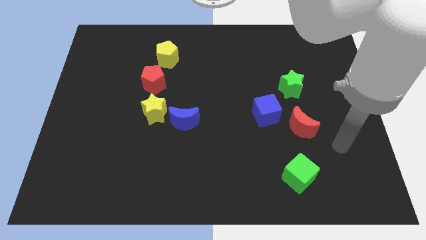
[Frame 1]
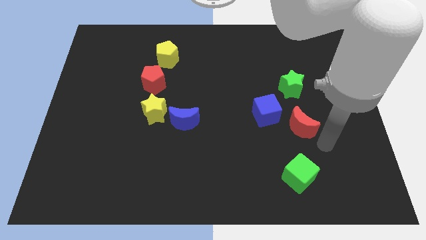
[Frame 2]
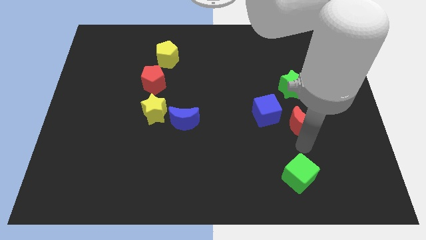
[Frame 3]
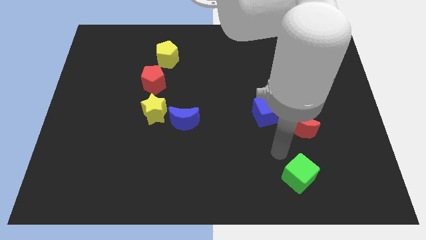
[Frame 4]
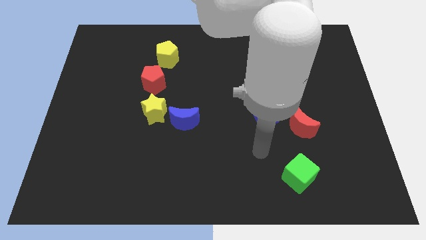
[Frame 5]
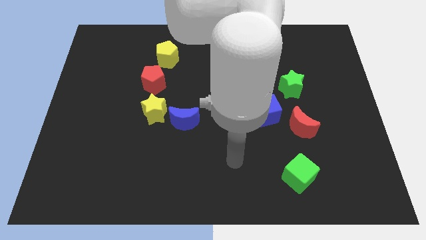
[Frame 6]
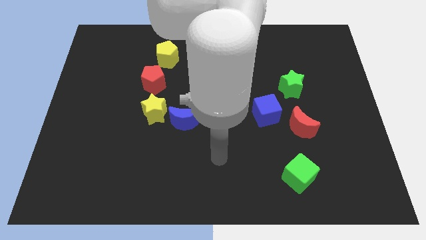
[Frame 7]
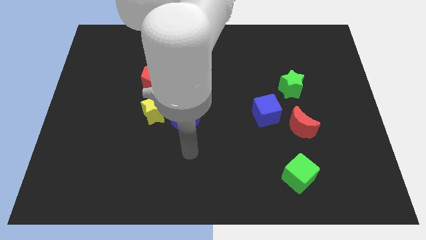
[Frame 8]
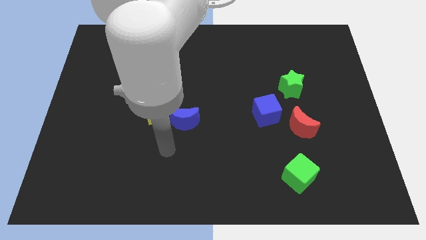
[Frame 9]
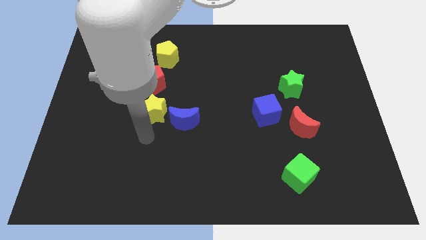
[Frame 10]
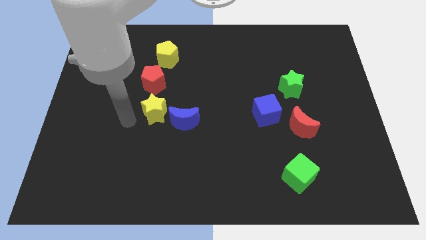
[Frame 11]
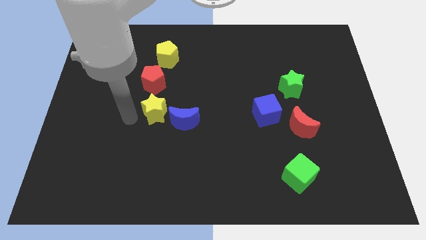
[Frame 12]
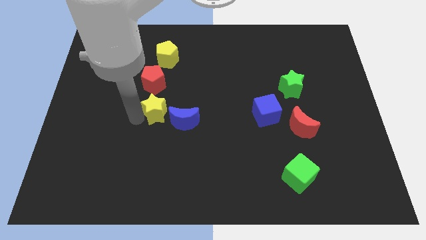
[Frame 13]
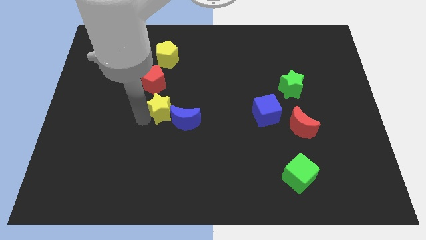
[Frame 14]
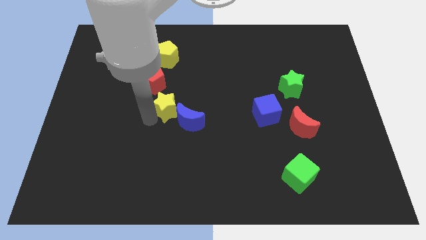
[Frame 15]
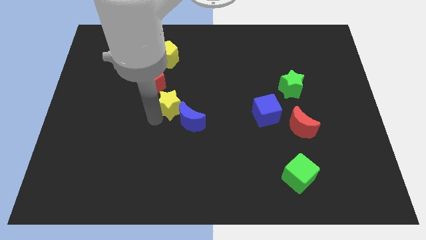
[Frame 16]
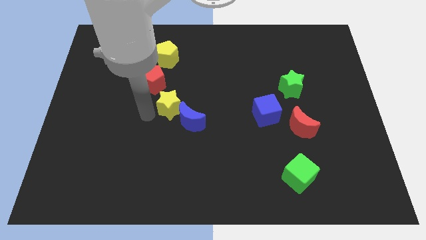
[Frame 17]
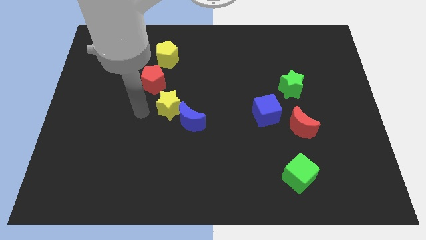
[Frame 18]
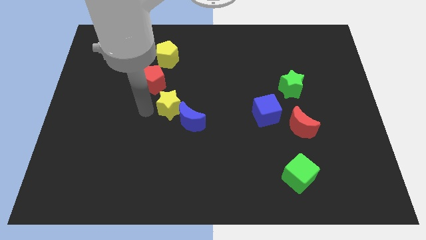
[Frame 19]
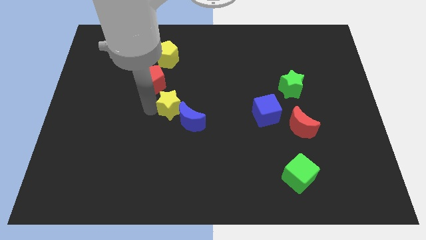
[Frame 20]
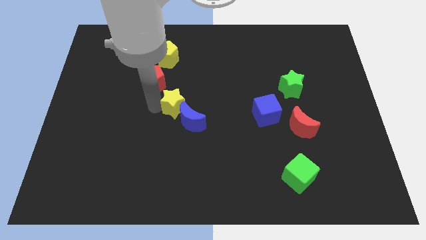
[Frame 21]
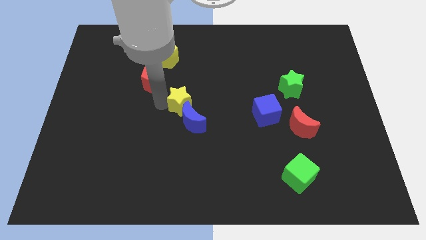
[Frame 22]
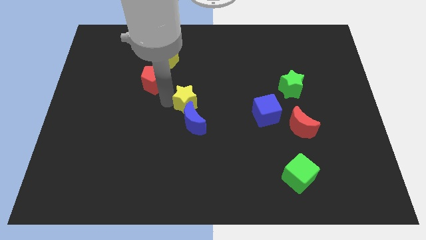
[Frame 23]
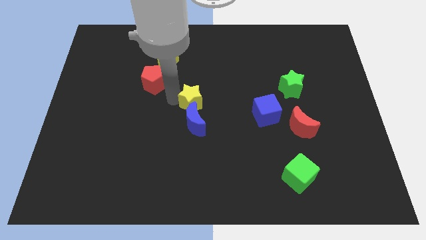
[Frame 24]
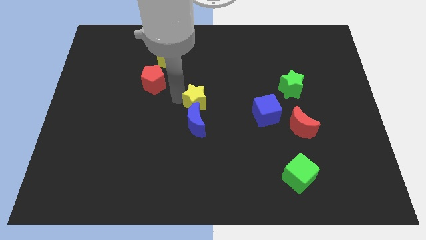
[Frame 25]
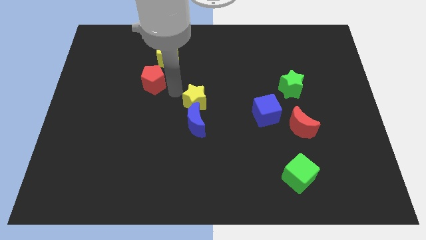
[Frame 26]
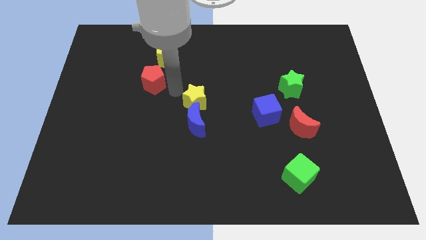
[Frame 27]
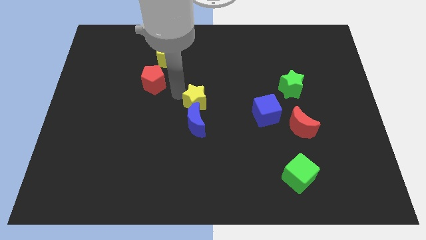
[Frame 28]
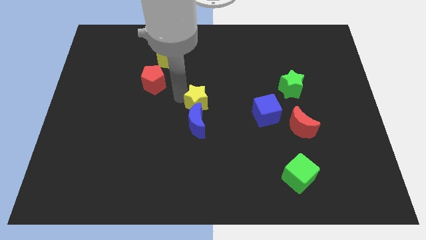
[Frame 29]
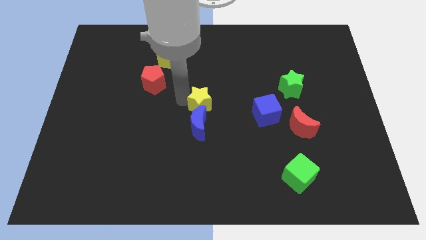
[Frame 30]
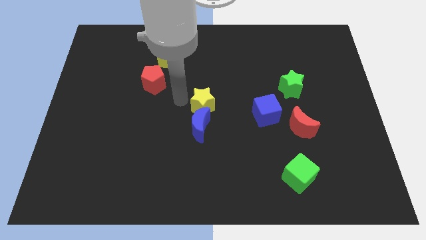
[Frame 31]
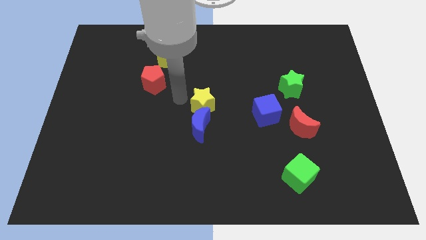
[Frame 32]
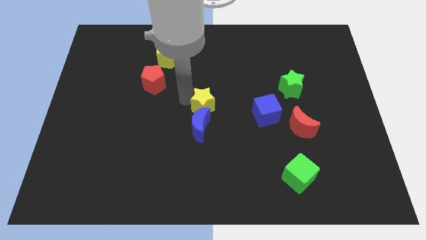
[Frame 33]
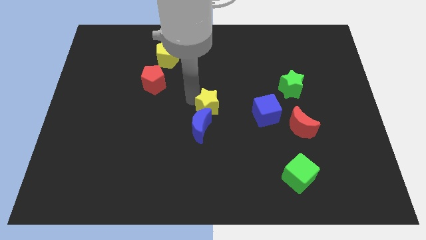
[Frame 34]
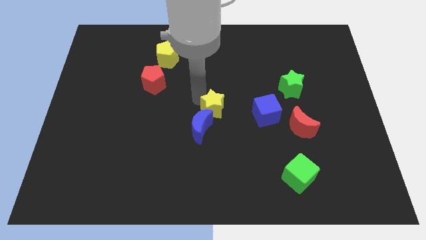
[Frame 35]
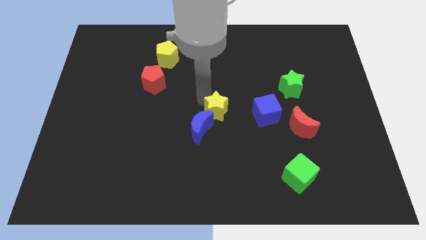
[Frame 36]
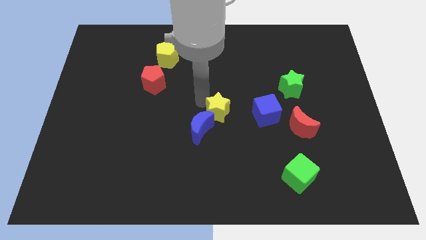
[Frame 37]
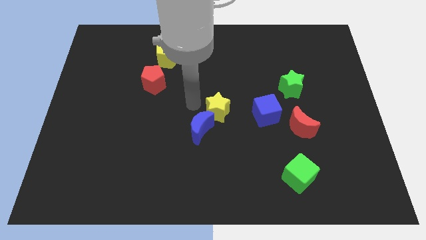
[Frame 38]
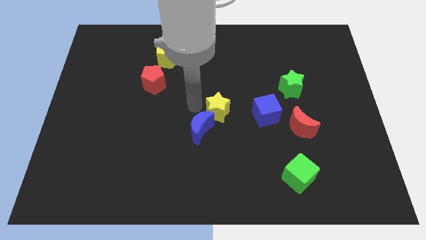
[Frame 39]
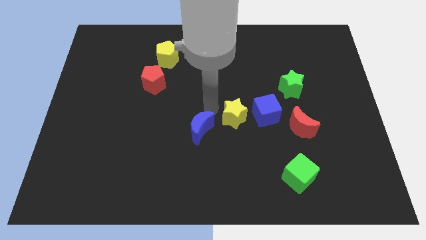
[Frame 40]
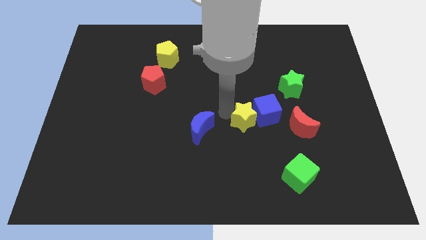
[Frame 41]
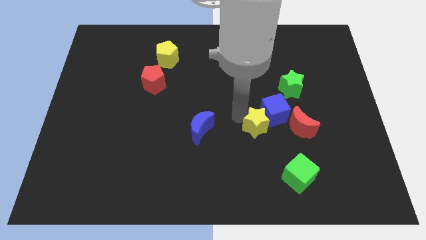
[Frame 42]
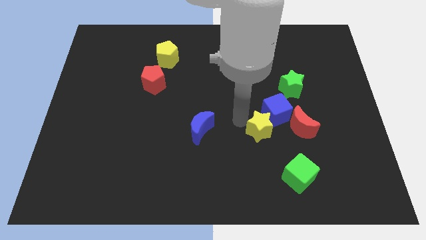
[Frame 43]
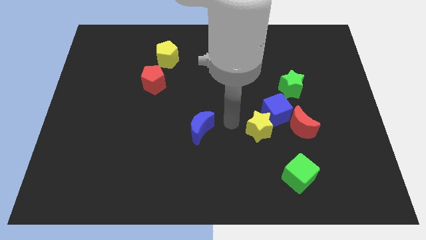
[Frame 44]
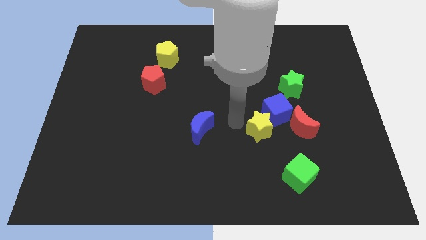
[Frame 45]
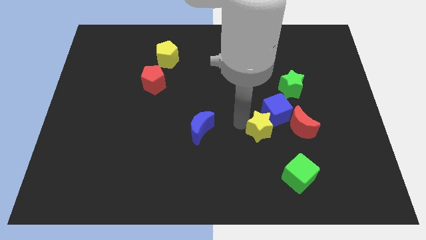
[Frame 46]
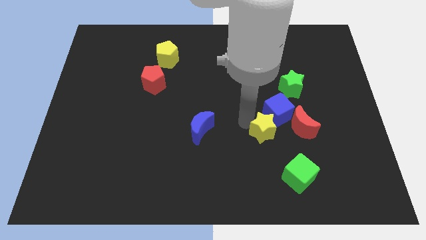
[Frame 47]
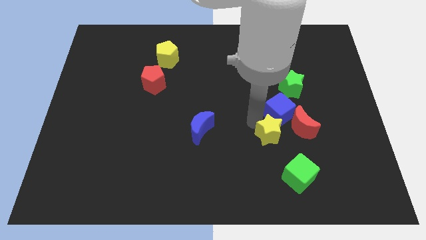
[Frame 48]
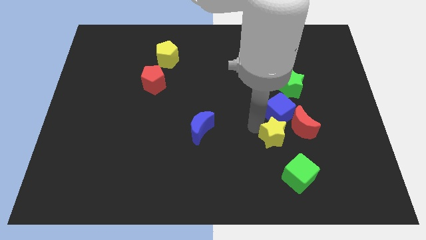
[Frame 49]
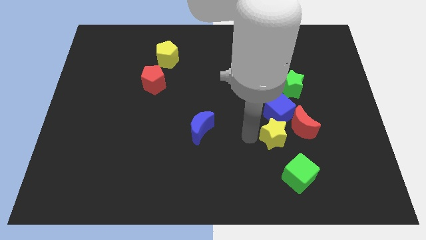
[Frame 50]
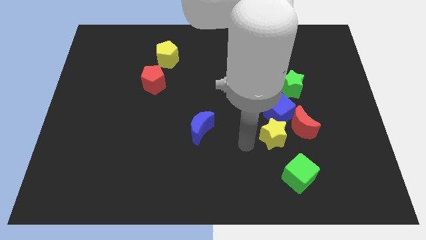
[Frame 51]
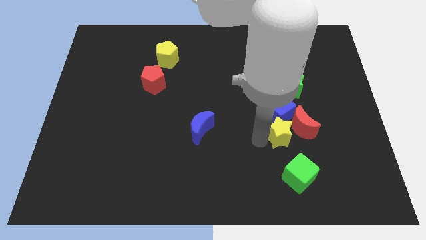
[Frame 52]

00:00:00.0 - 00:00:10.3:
push the yellow star towards the red moon

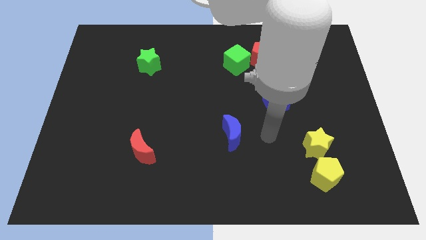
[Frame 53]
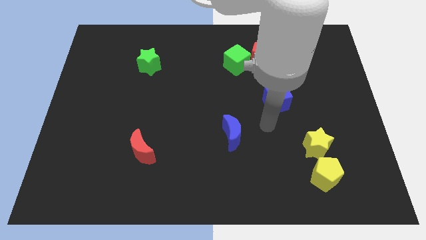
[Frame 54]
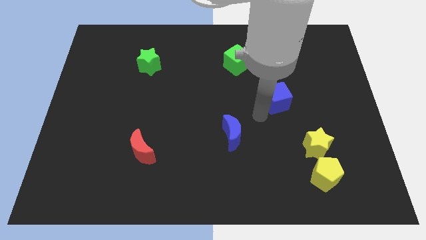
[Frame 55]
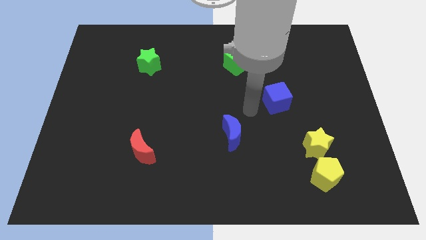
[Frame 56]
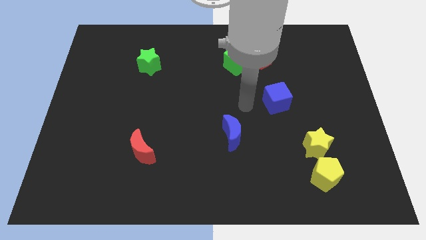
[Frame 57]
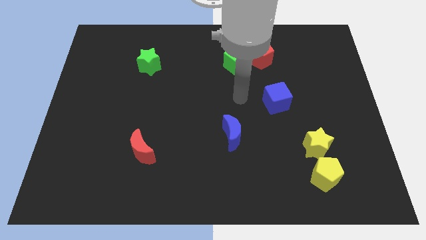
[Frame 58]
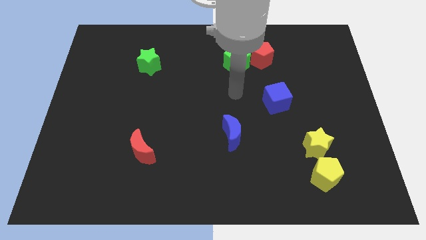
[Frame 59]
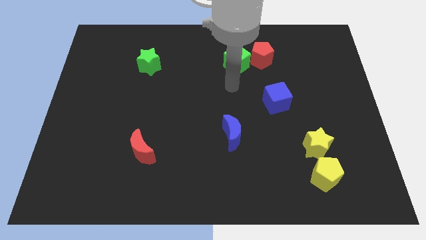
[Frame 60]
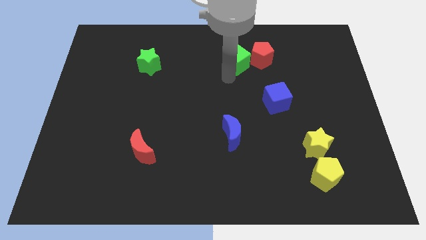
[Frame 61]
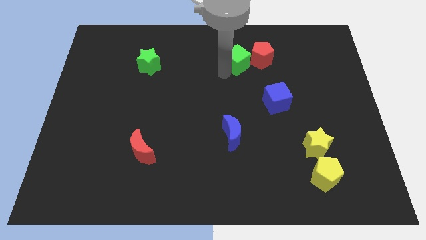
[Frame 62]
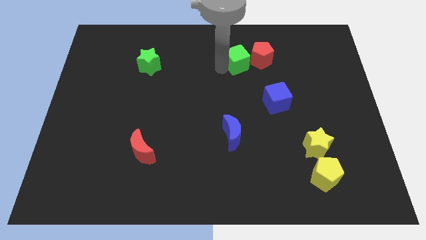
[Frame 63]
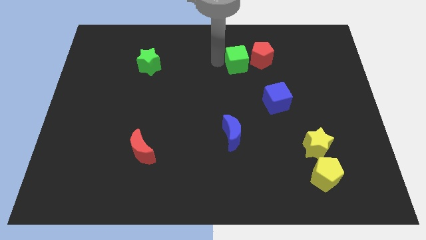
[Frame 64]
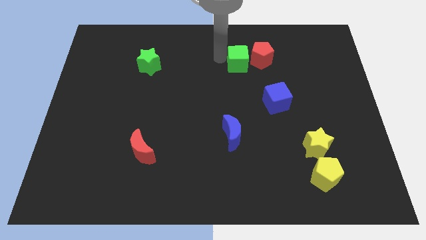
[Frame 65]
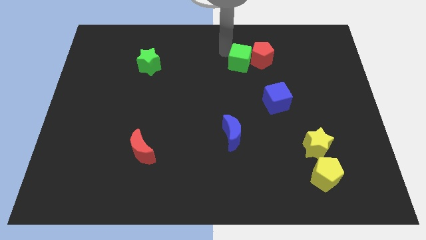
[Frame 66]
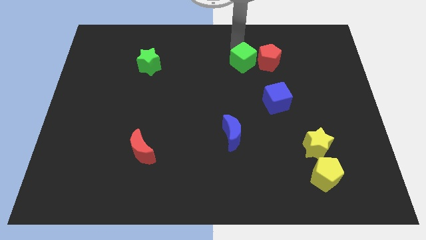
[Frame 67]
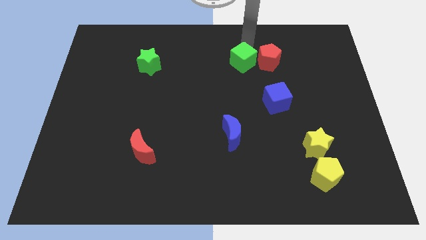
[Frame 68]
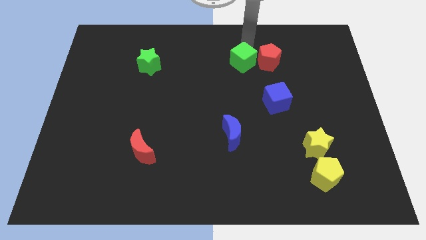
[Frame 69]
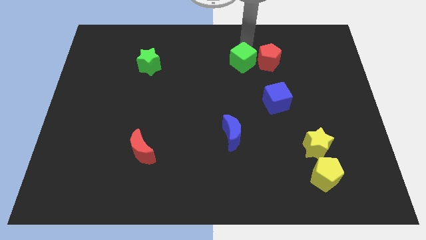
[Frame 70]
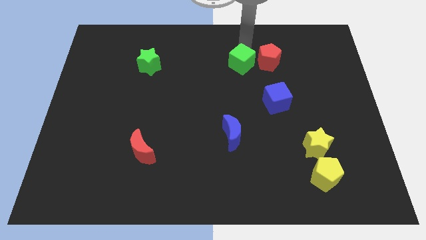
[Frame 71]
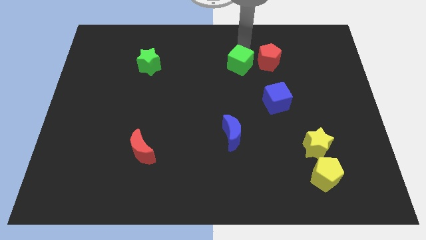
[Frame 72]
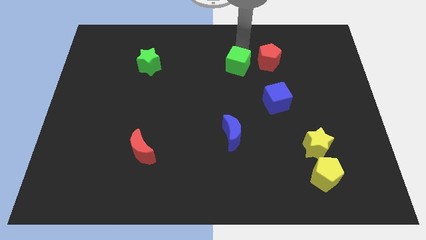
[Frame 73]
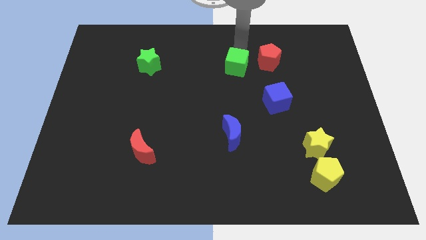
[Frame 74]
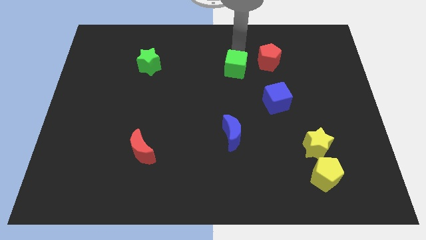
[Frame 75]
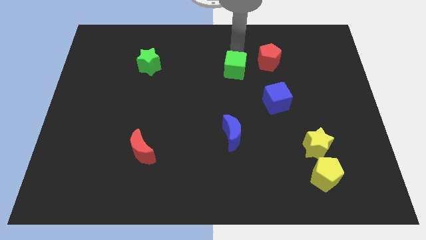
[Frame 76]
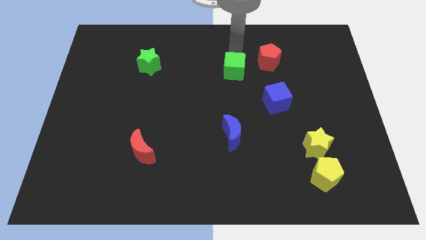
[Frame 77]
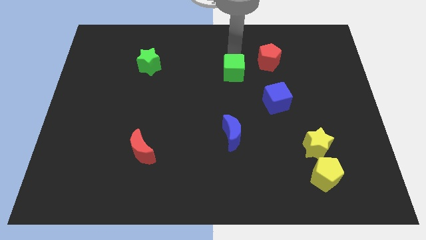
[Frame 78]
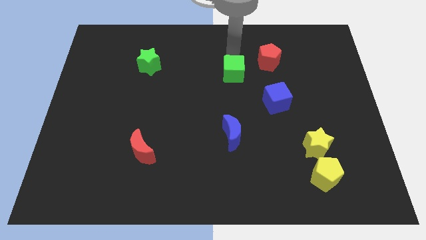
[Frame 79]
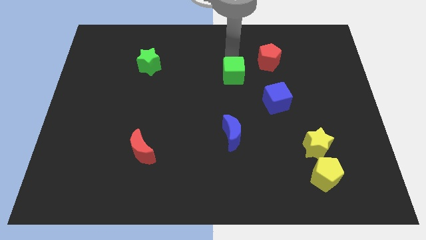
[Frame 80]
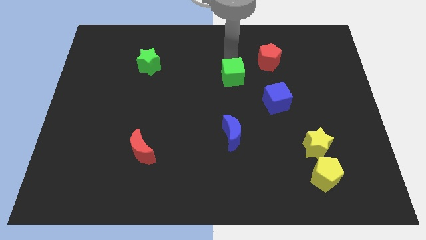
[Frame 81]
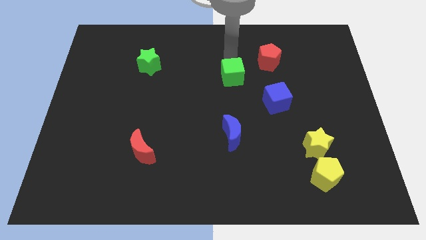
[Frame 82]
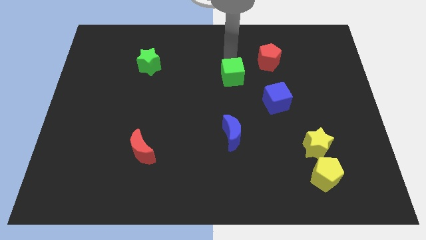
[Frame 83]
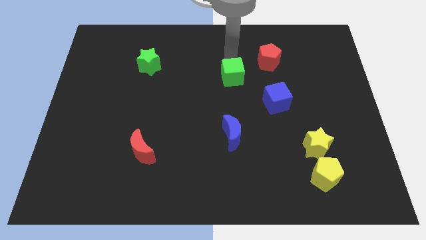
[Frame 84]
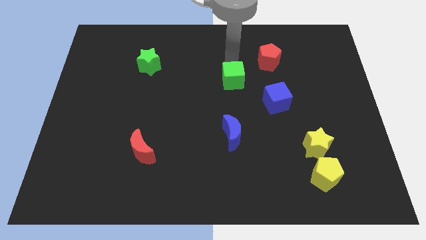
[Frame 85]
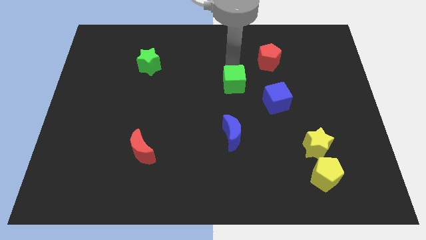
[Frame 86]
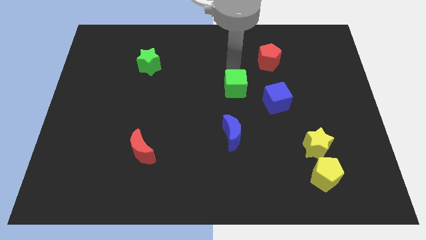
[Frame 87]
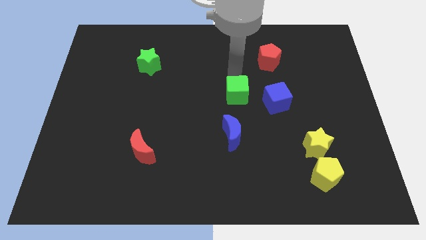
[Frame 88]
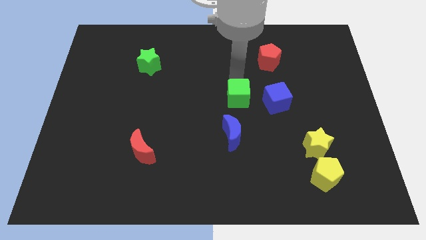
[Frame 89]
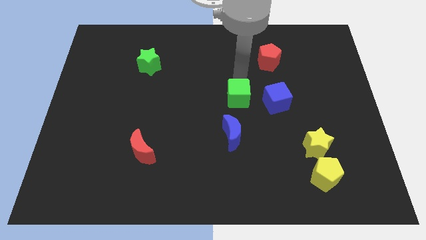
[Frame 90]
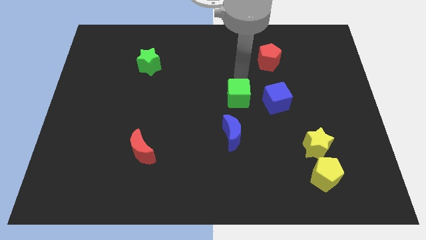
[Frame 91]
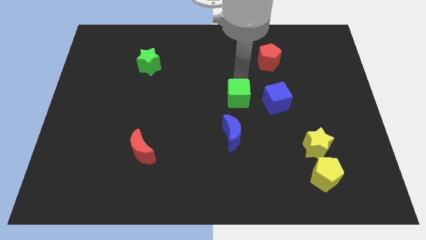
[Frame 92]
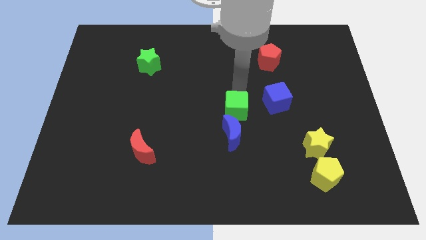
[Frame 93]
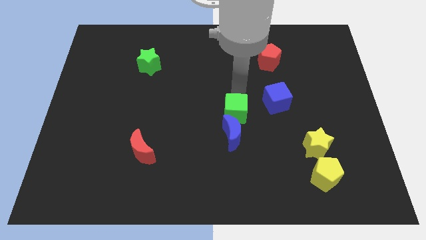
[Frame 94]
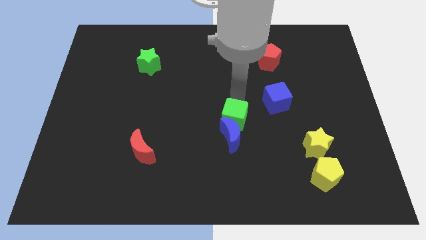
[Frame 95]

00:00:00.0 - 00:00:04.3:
push the green cube close to the blue moon
